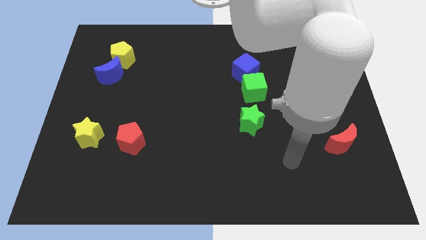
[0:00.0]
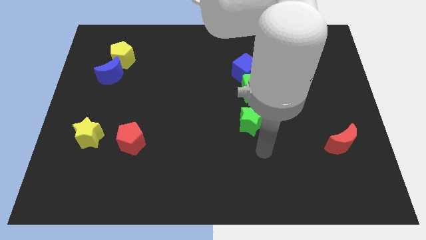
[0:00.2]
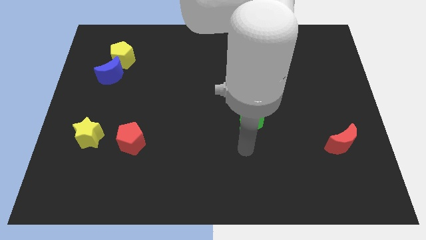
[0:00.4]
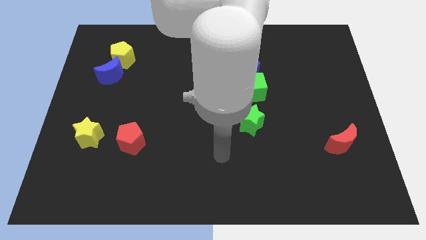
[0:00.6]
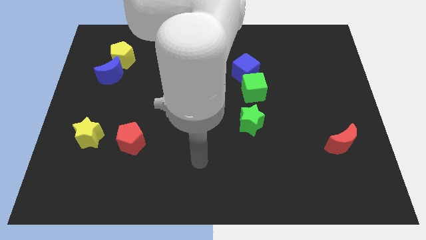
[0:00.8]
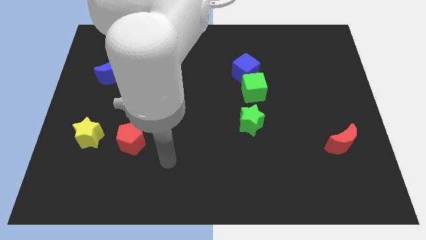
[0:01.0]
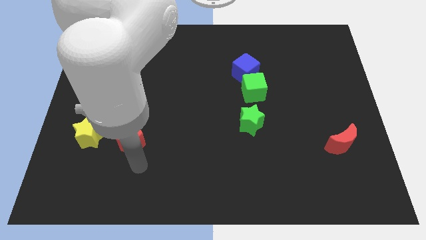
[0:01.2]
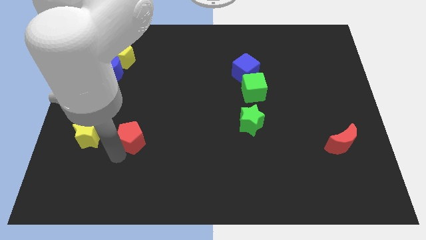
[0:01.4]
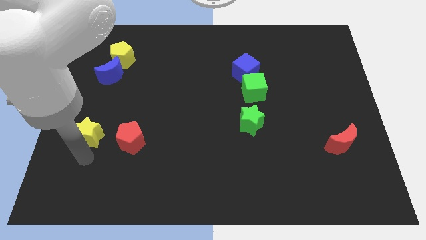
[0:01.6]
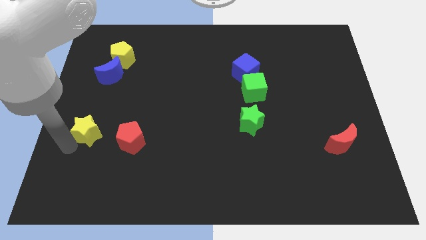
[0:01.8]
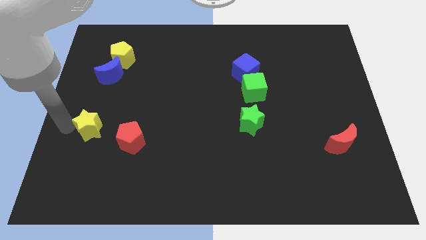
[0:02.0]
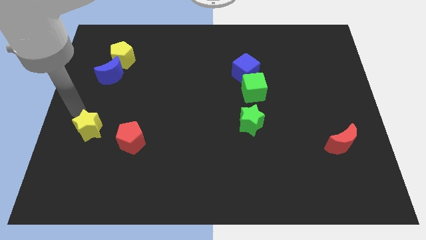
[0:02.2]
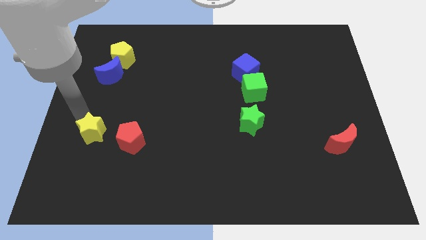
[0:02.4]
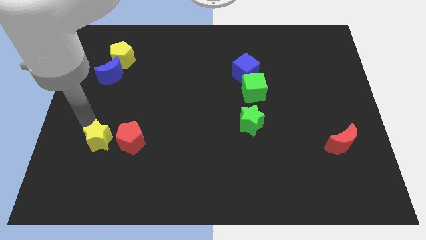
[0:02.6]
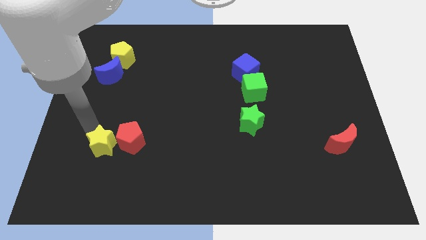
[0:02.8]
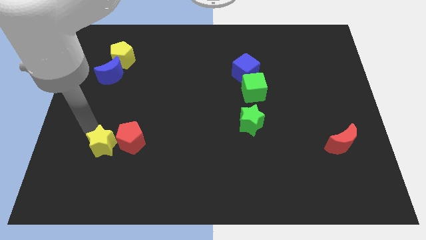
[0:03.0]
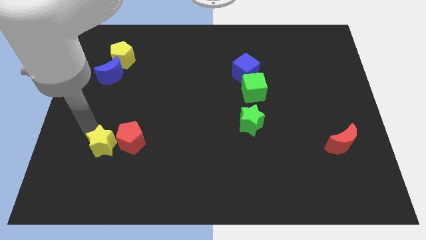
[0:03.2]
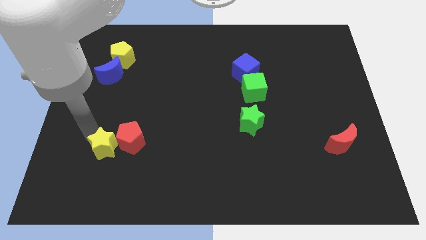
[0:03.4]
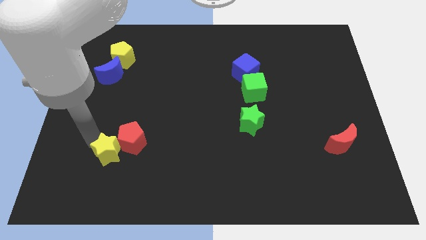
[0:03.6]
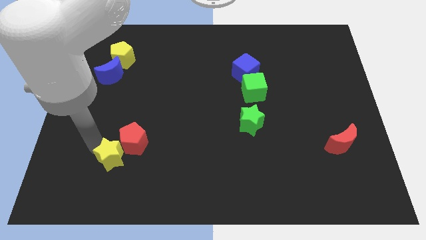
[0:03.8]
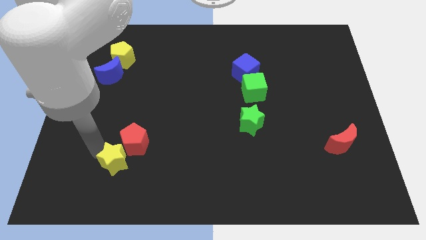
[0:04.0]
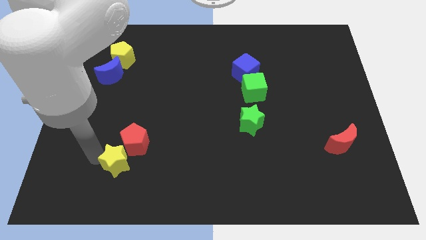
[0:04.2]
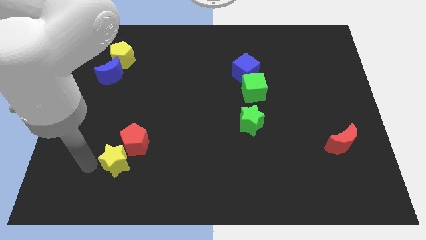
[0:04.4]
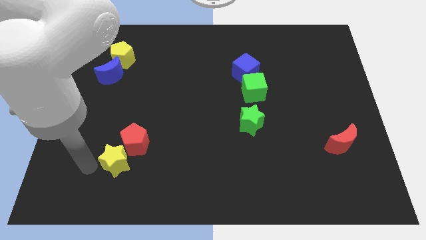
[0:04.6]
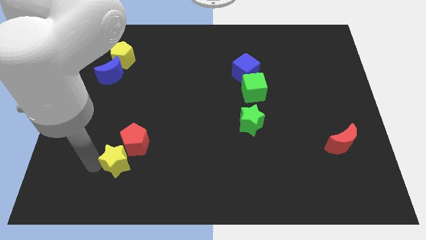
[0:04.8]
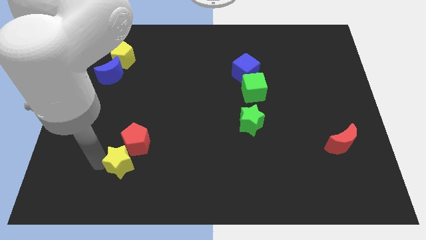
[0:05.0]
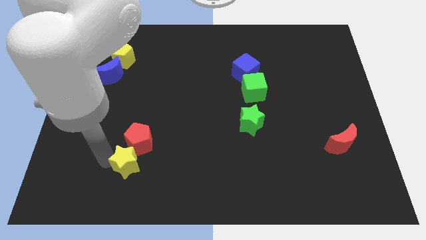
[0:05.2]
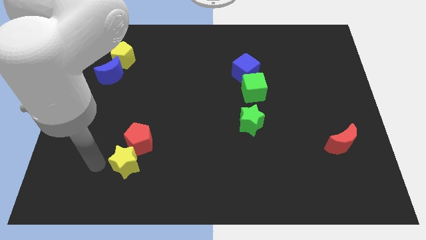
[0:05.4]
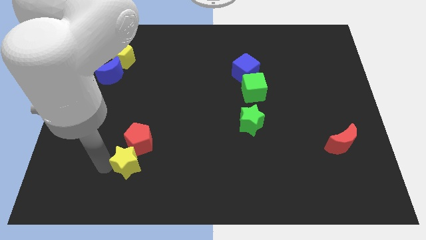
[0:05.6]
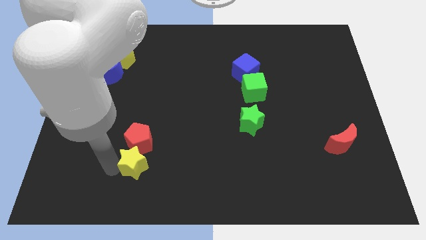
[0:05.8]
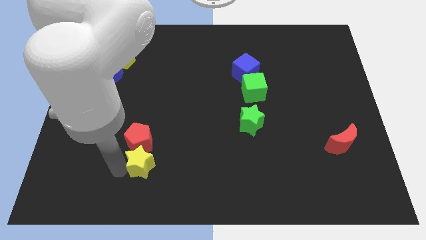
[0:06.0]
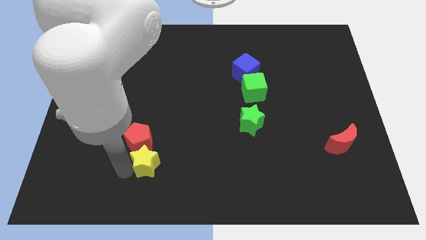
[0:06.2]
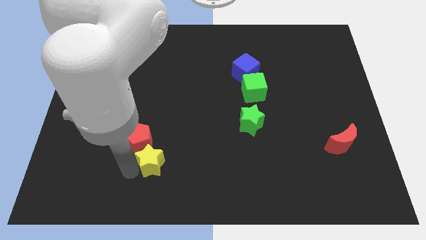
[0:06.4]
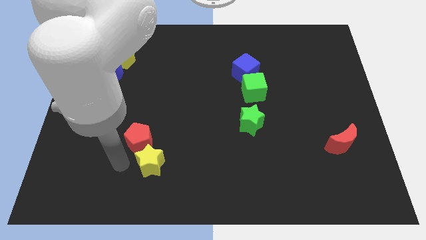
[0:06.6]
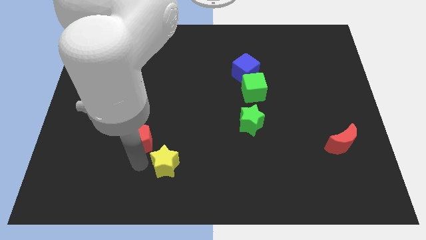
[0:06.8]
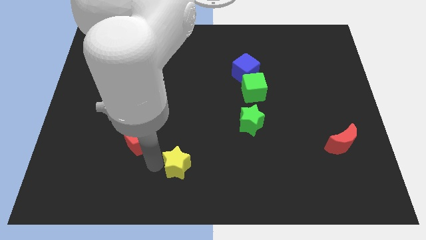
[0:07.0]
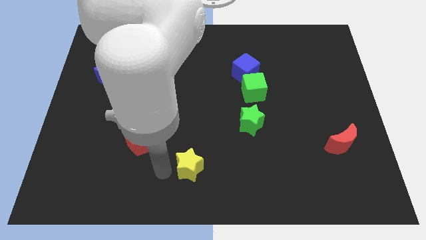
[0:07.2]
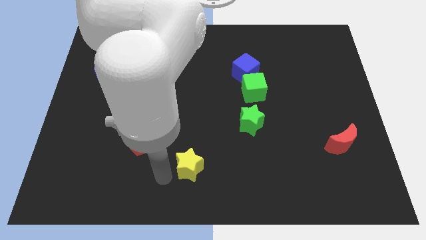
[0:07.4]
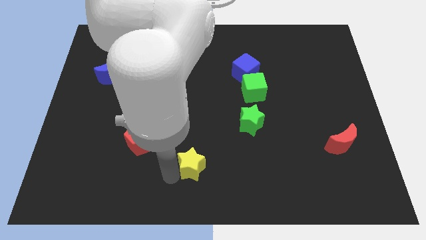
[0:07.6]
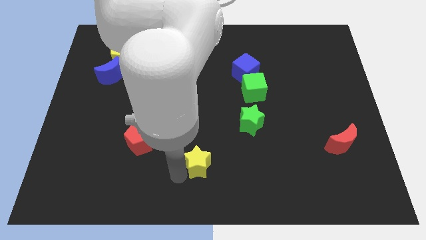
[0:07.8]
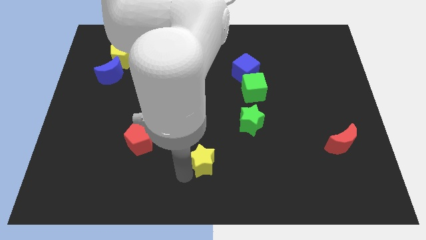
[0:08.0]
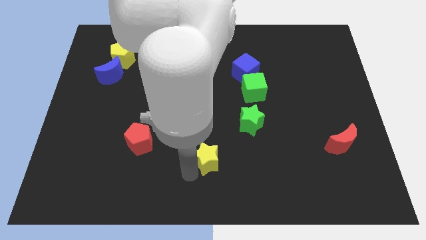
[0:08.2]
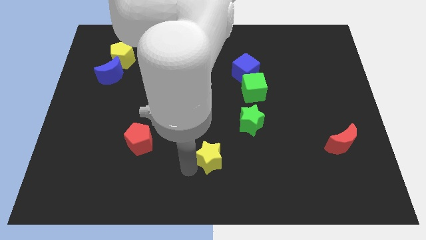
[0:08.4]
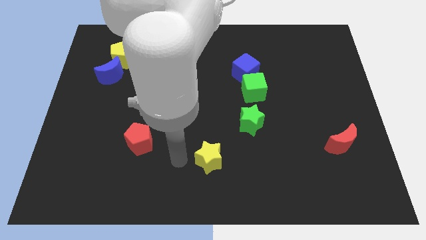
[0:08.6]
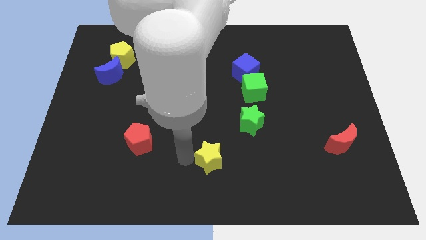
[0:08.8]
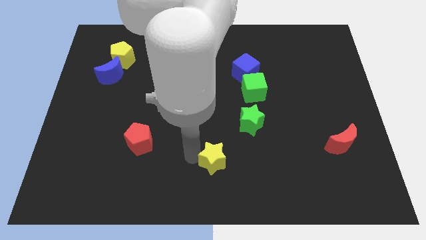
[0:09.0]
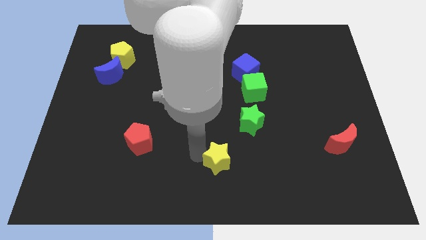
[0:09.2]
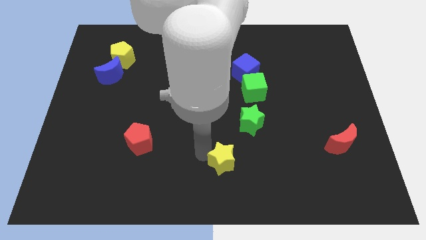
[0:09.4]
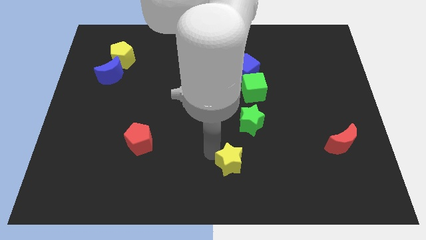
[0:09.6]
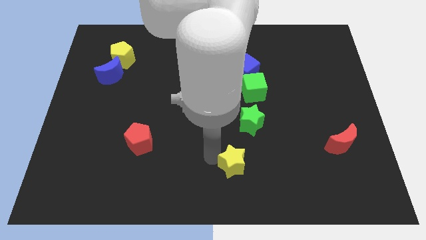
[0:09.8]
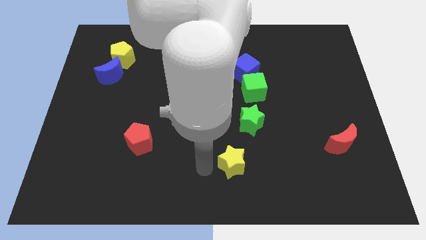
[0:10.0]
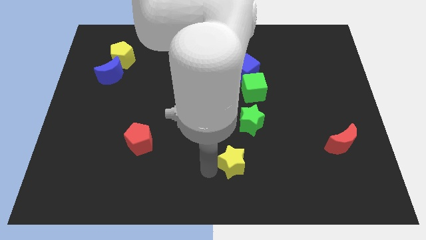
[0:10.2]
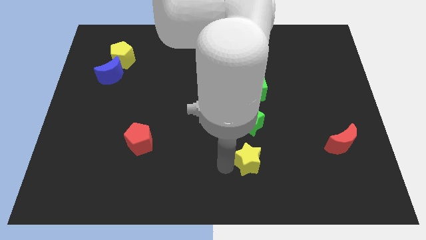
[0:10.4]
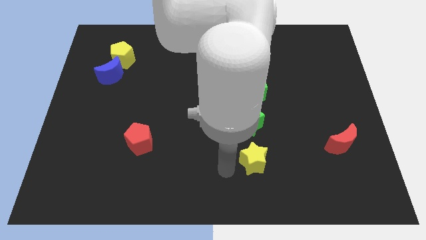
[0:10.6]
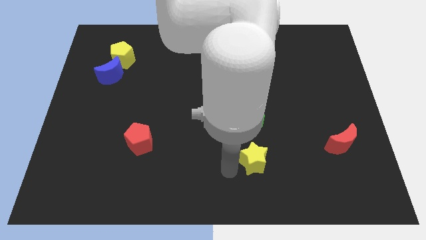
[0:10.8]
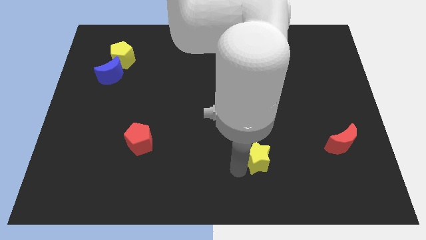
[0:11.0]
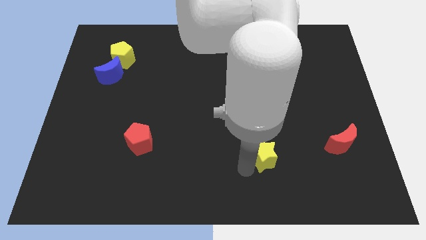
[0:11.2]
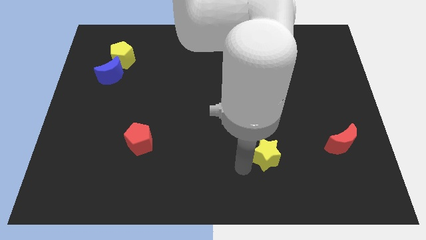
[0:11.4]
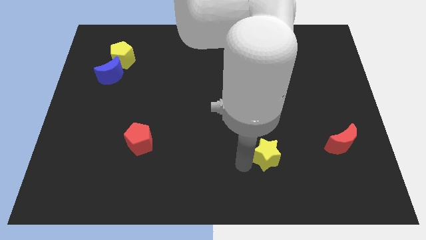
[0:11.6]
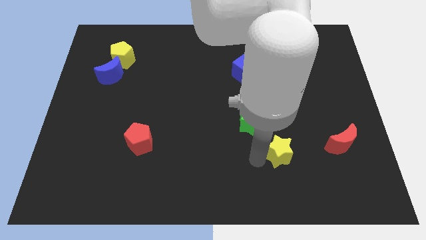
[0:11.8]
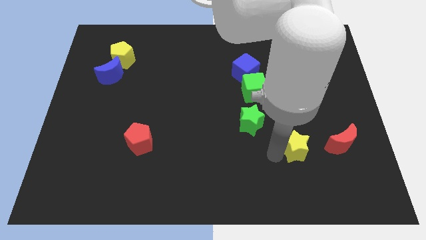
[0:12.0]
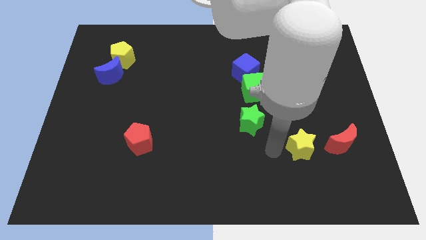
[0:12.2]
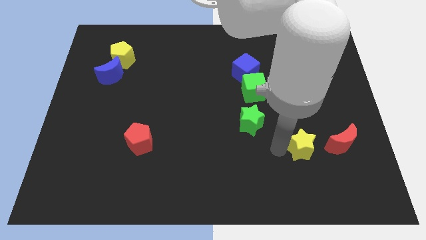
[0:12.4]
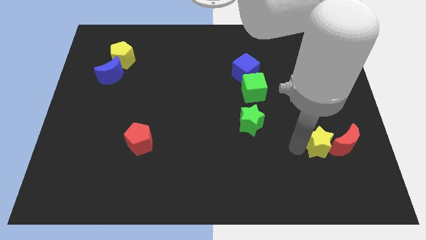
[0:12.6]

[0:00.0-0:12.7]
push the yellow star to the red moon

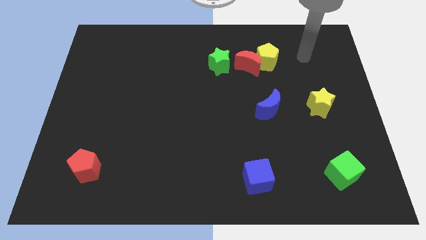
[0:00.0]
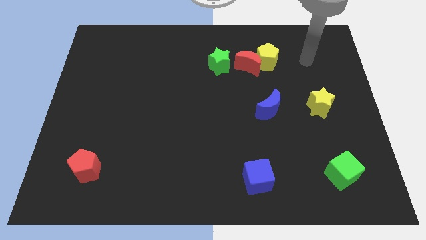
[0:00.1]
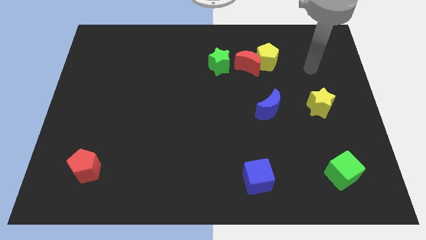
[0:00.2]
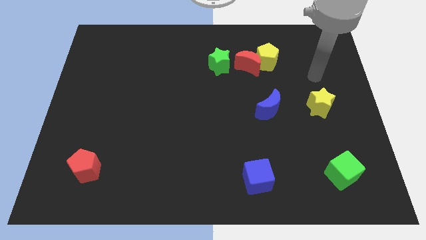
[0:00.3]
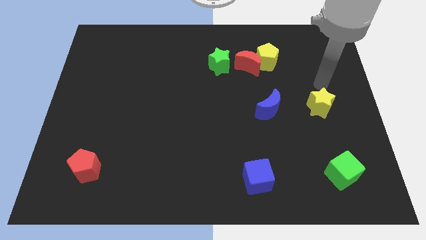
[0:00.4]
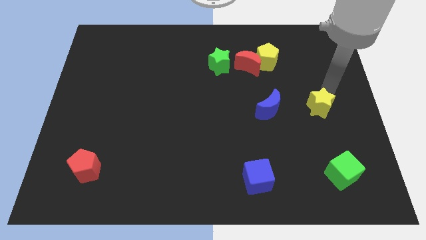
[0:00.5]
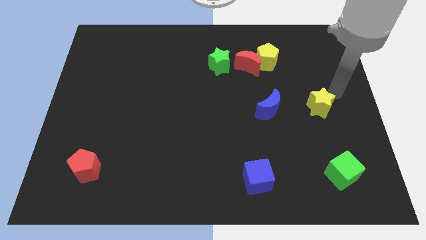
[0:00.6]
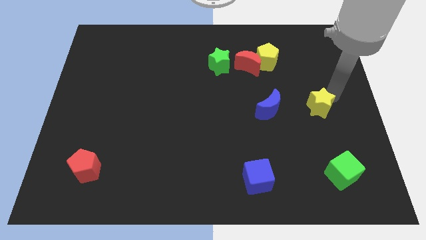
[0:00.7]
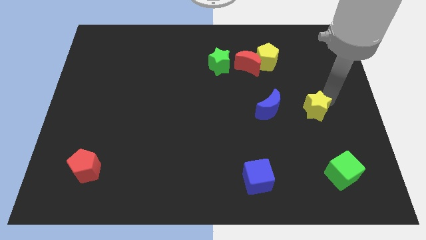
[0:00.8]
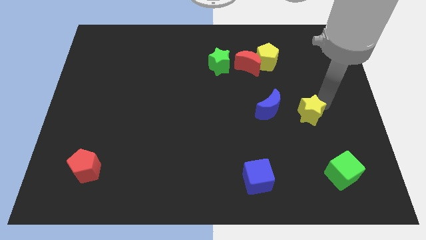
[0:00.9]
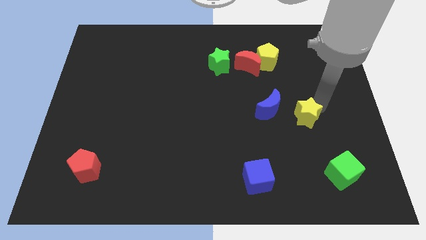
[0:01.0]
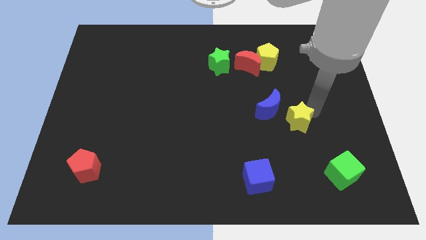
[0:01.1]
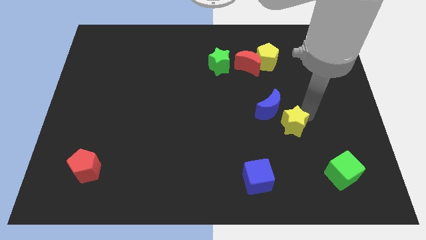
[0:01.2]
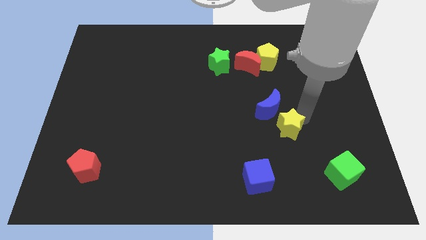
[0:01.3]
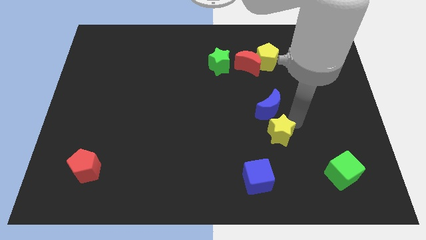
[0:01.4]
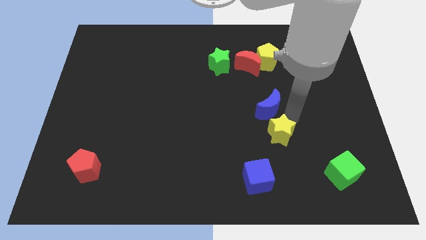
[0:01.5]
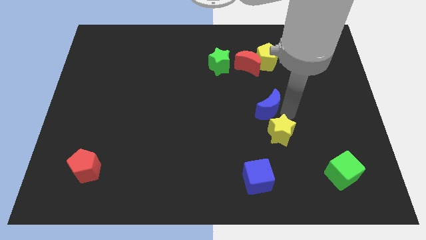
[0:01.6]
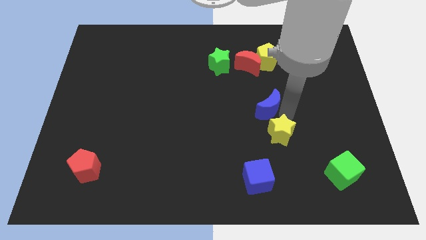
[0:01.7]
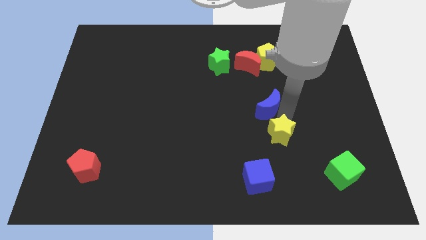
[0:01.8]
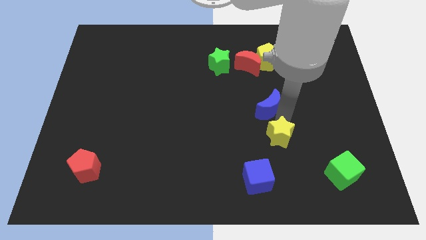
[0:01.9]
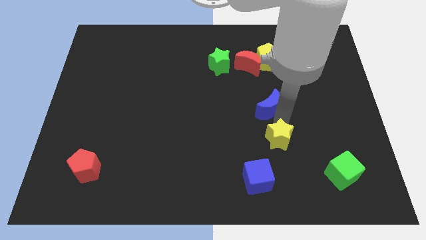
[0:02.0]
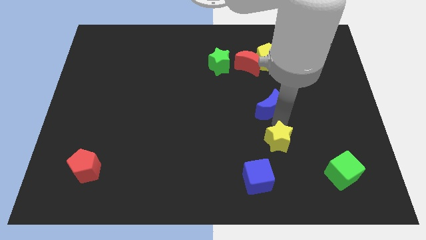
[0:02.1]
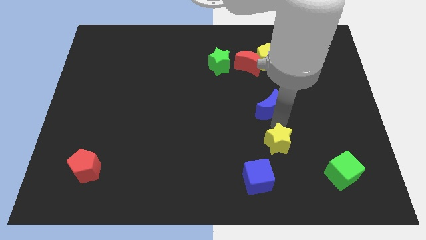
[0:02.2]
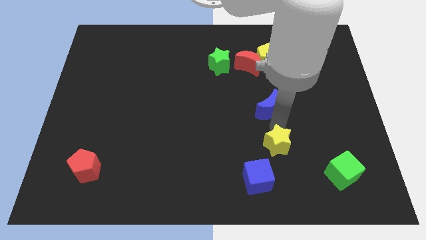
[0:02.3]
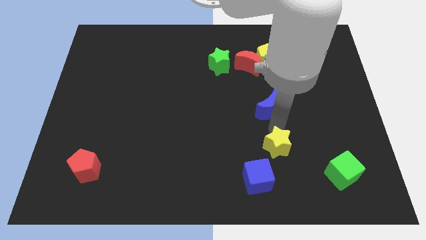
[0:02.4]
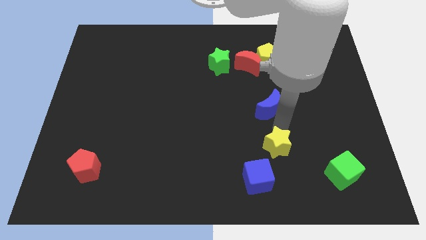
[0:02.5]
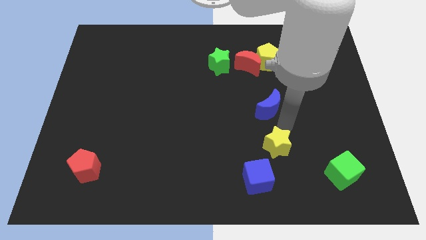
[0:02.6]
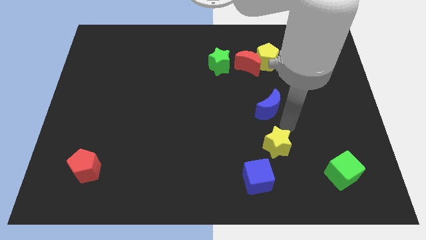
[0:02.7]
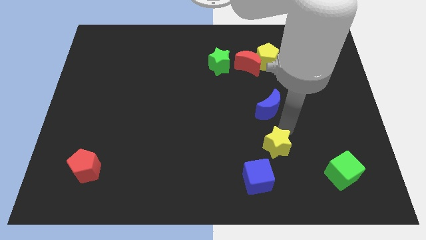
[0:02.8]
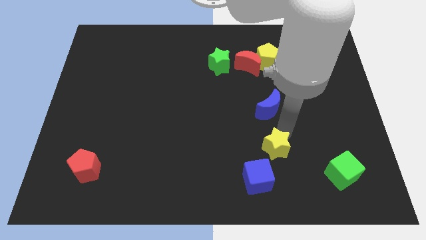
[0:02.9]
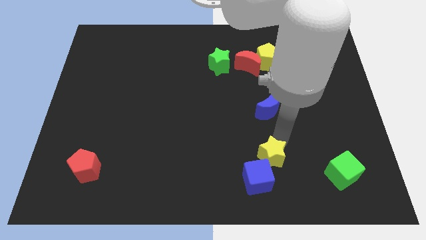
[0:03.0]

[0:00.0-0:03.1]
move the yellow star to the blue cube
